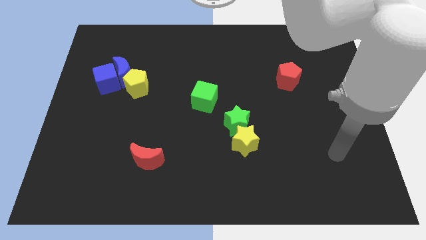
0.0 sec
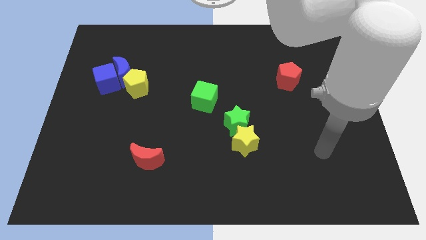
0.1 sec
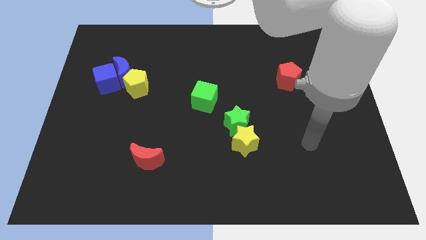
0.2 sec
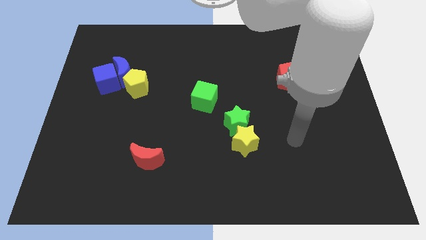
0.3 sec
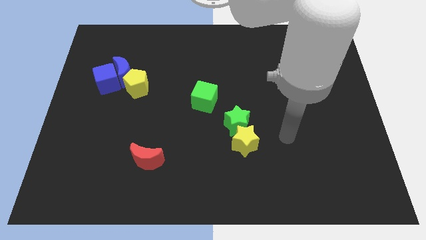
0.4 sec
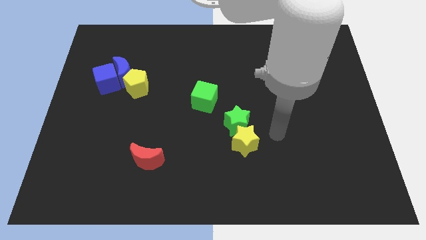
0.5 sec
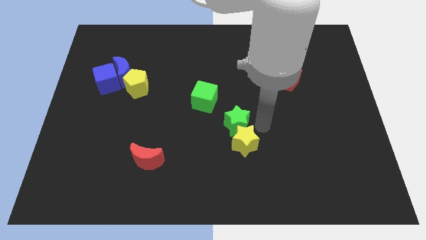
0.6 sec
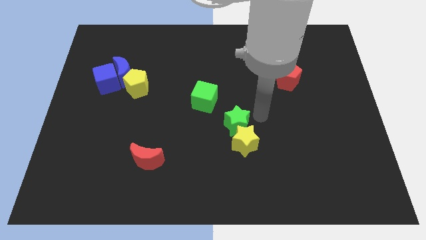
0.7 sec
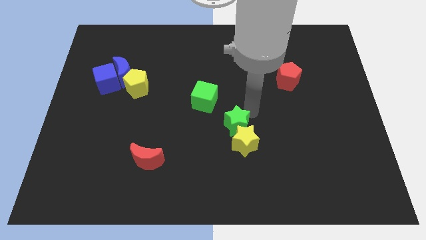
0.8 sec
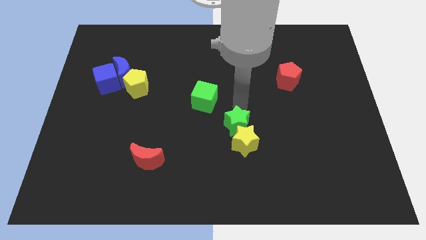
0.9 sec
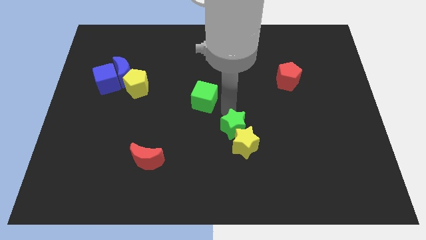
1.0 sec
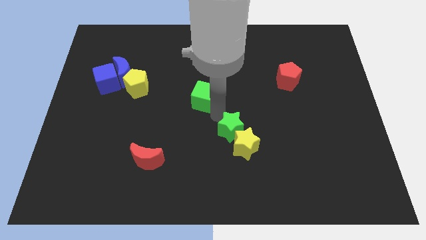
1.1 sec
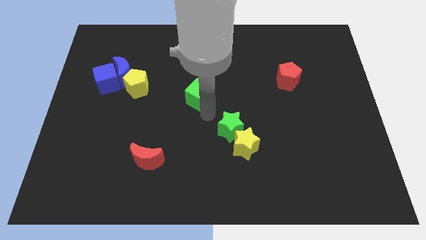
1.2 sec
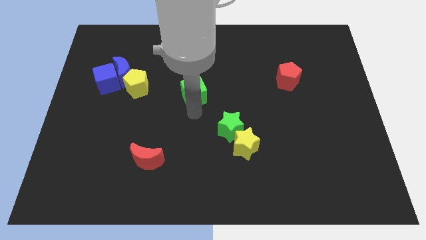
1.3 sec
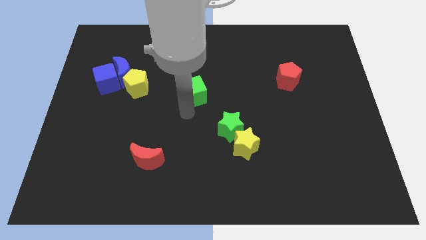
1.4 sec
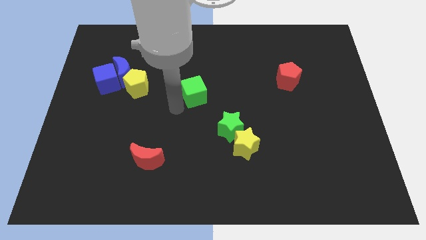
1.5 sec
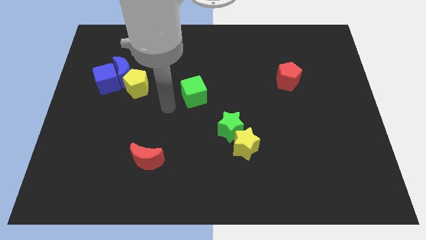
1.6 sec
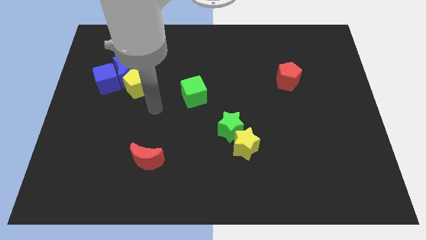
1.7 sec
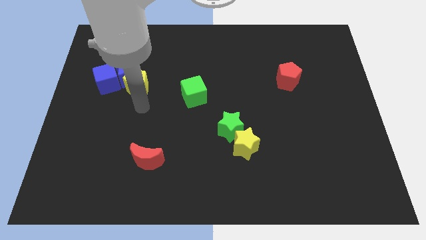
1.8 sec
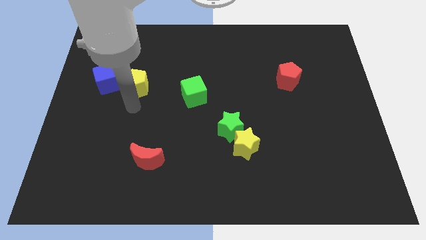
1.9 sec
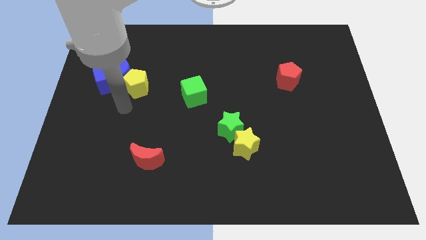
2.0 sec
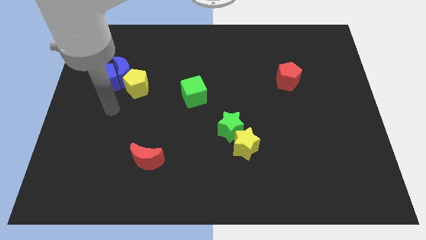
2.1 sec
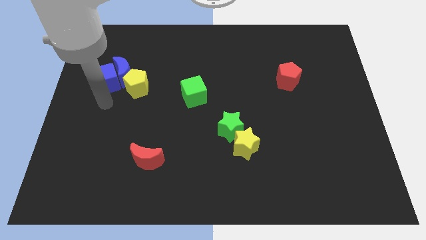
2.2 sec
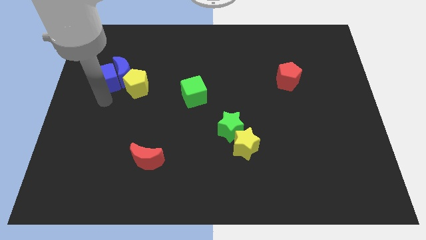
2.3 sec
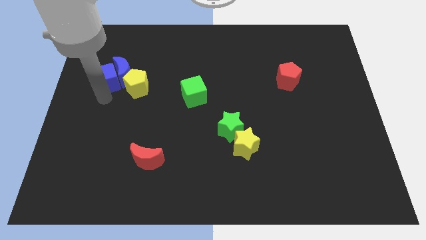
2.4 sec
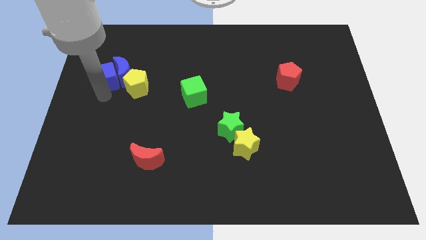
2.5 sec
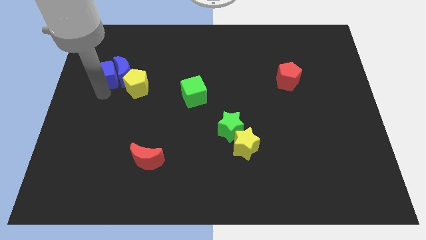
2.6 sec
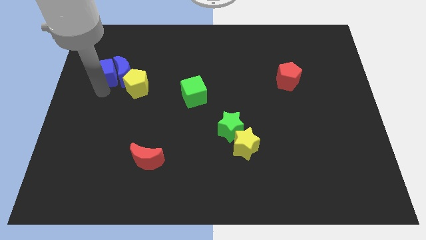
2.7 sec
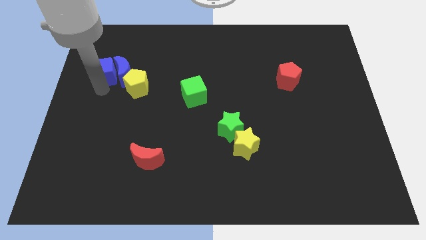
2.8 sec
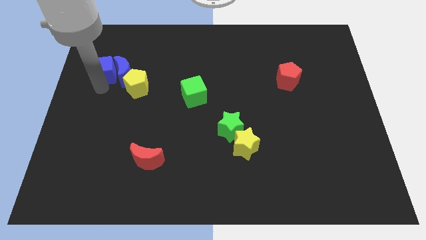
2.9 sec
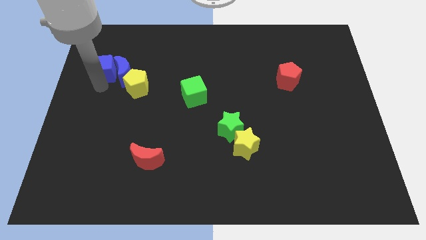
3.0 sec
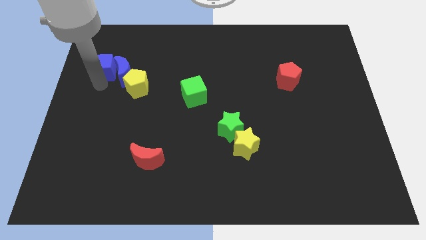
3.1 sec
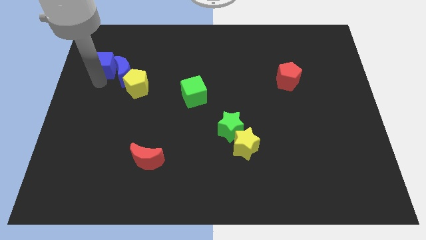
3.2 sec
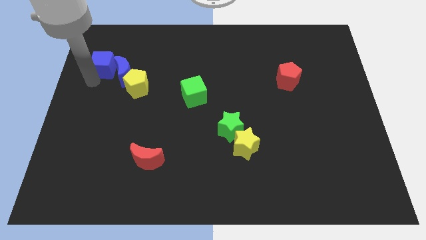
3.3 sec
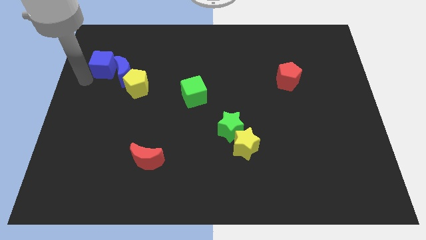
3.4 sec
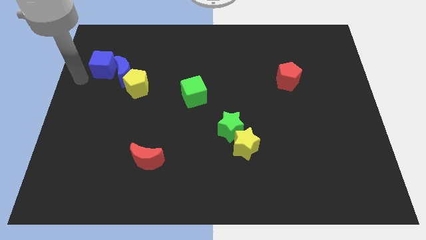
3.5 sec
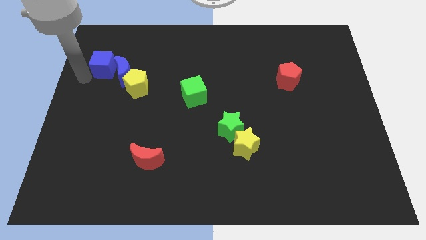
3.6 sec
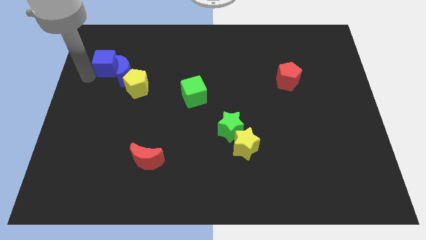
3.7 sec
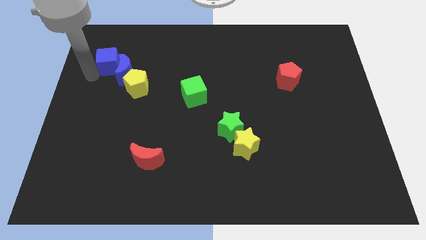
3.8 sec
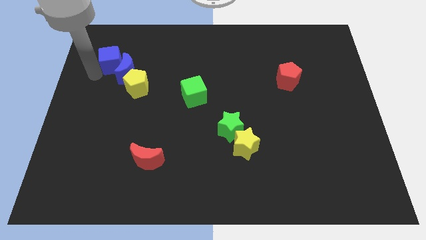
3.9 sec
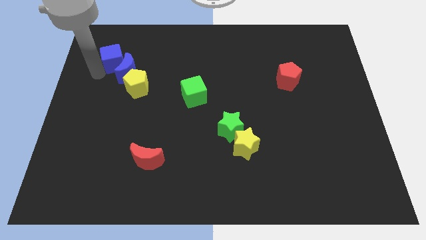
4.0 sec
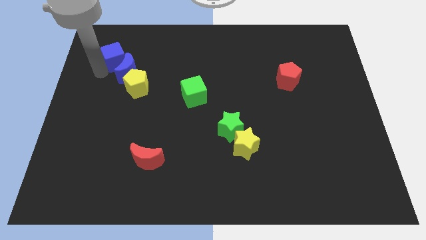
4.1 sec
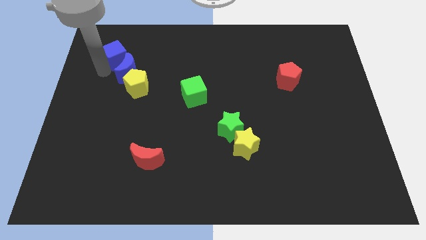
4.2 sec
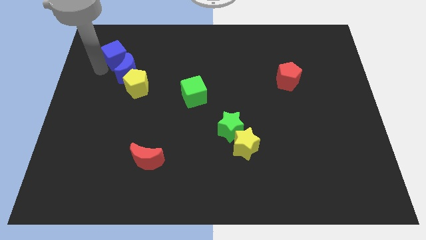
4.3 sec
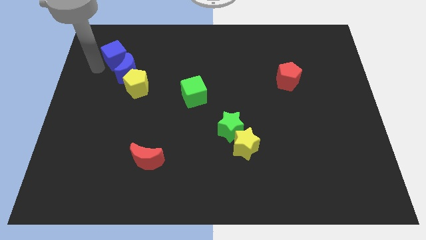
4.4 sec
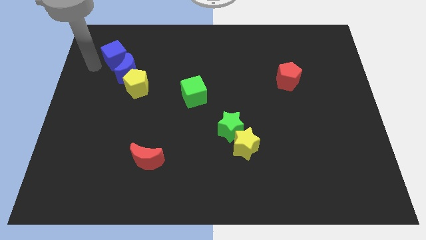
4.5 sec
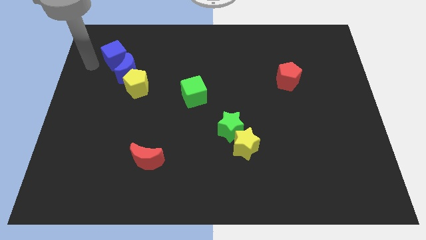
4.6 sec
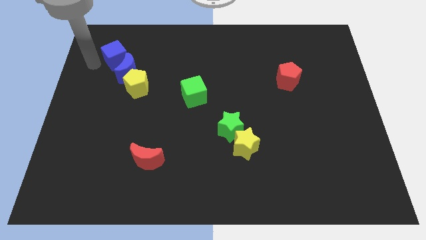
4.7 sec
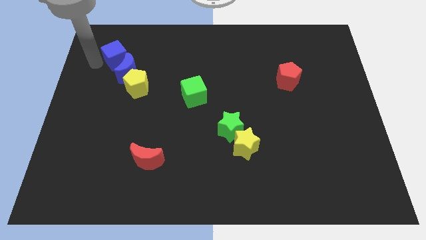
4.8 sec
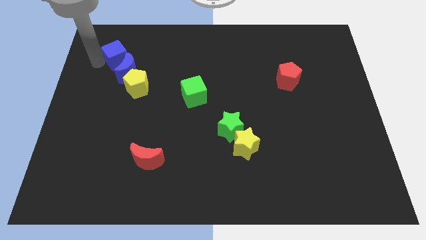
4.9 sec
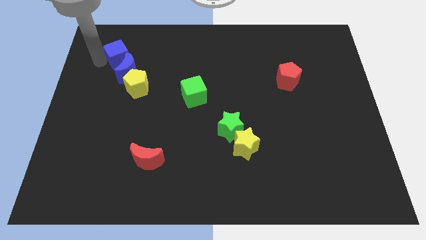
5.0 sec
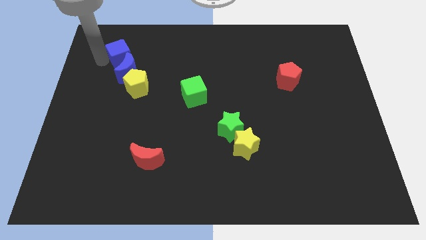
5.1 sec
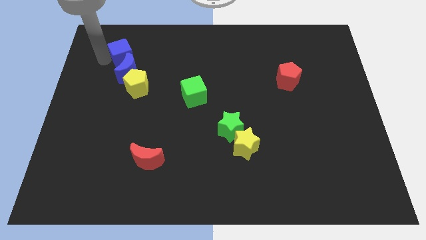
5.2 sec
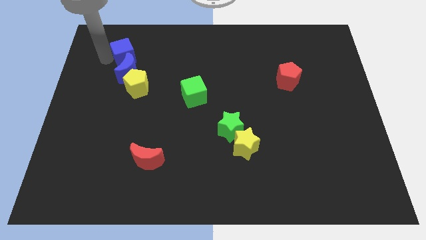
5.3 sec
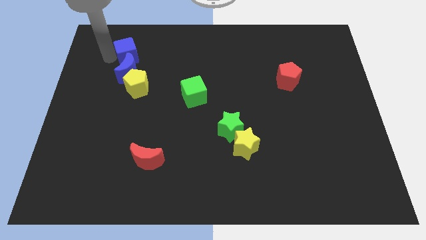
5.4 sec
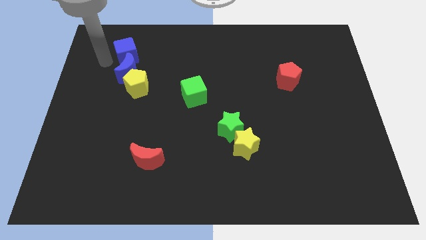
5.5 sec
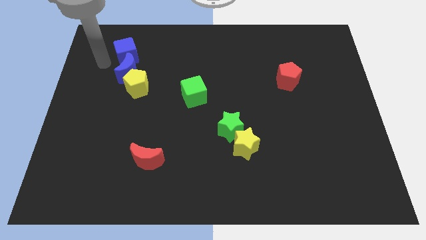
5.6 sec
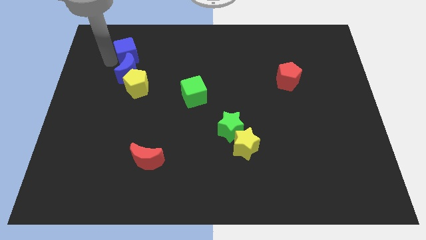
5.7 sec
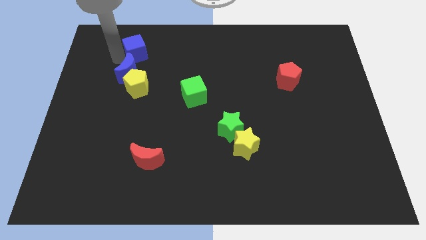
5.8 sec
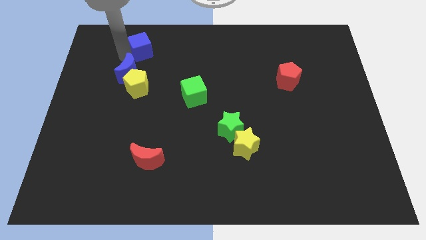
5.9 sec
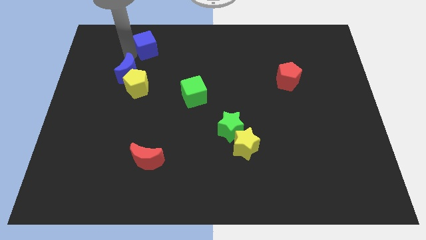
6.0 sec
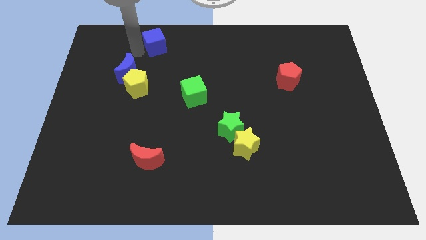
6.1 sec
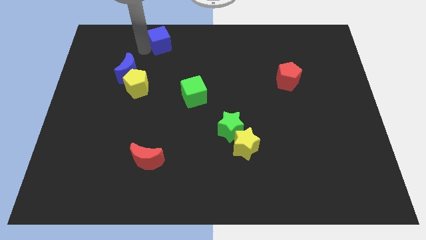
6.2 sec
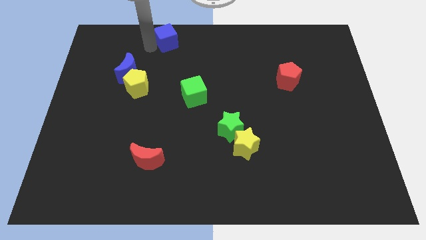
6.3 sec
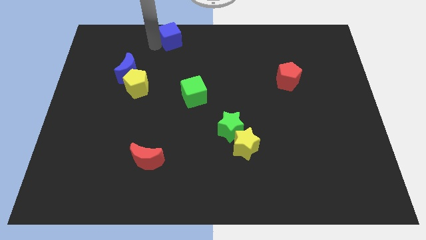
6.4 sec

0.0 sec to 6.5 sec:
put the blue cube to the top
